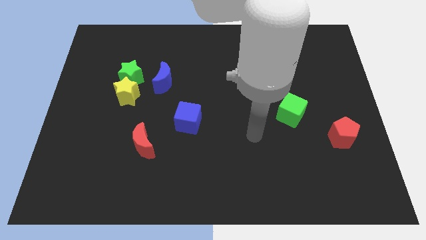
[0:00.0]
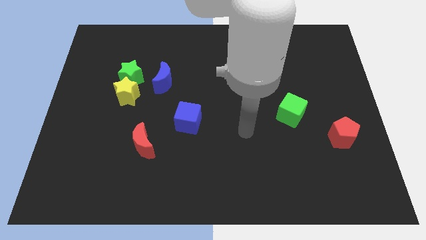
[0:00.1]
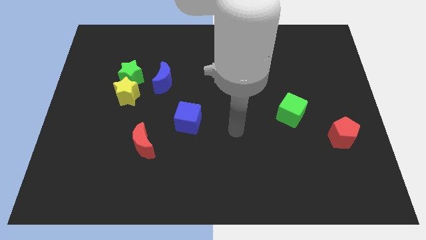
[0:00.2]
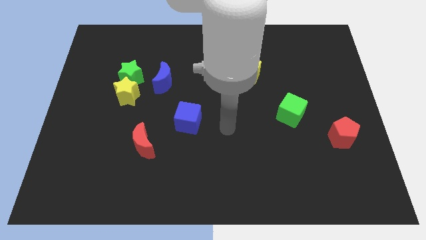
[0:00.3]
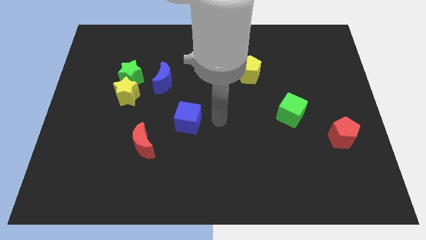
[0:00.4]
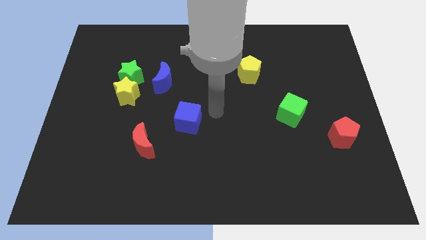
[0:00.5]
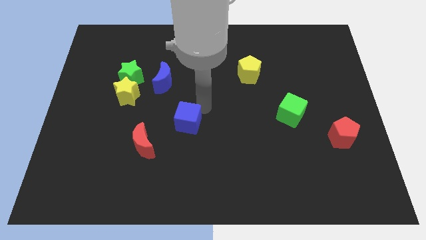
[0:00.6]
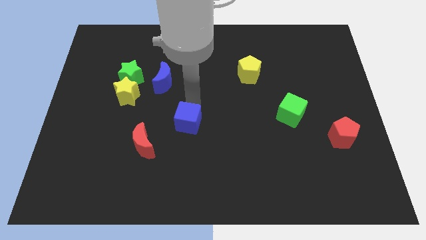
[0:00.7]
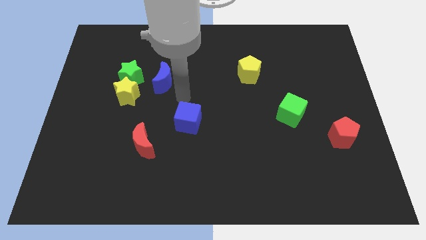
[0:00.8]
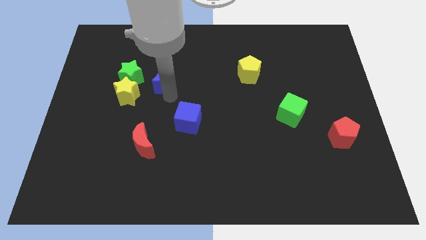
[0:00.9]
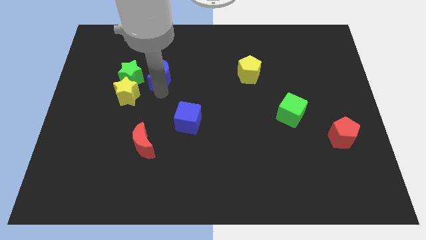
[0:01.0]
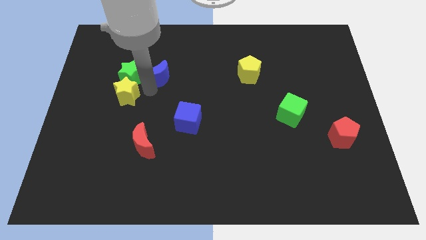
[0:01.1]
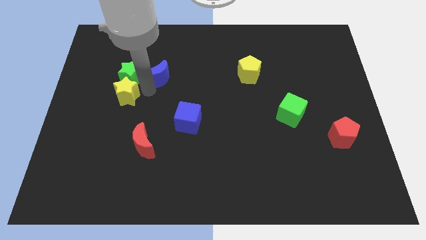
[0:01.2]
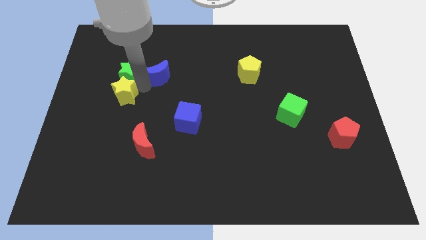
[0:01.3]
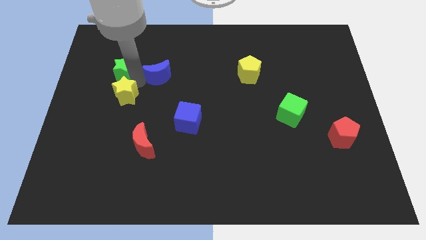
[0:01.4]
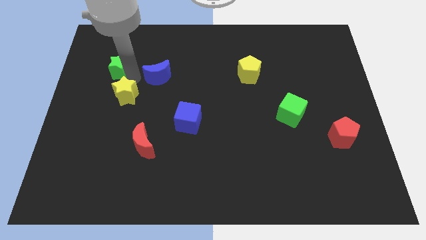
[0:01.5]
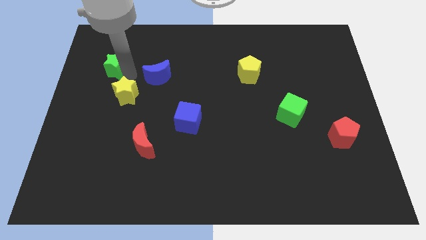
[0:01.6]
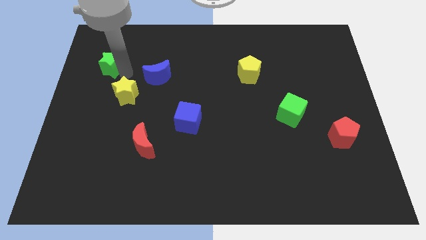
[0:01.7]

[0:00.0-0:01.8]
pull the green star apart from the yellow star and blue moon

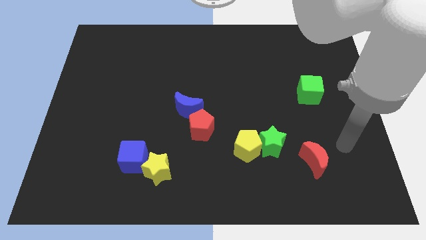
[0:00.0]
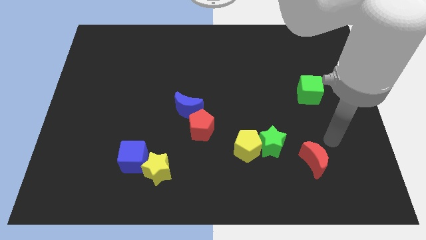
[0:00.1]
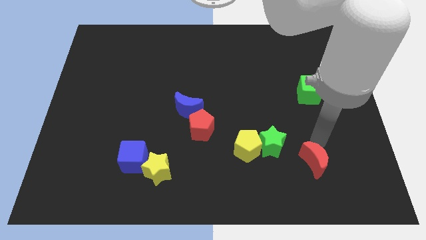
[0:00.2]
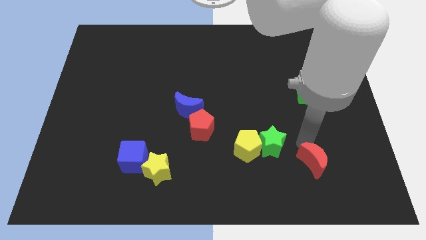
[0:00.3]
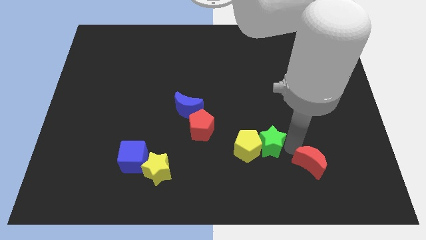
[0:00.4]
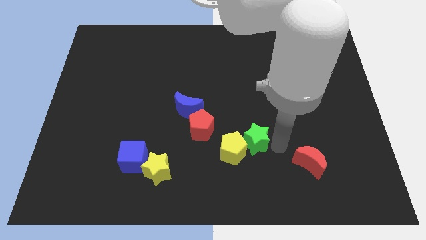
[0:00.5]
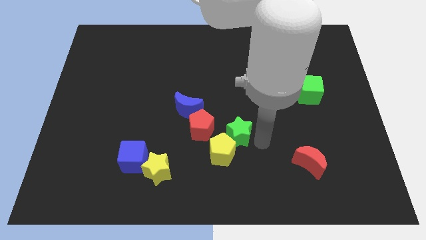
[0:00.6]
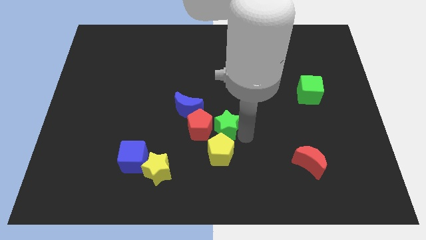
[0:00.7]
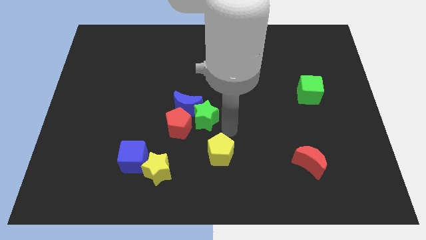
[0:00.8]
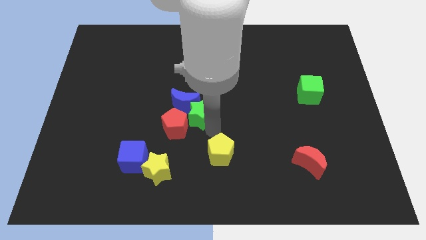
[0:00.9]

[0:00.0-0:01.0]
separate the yellow pentagon from the green star

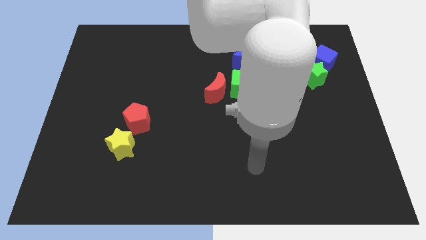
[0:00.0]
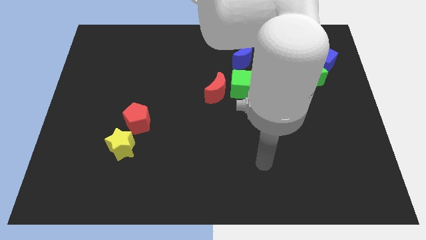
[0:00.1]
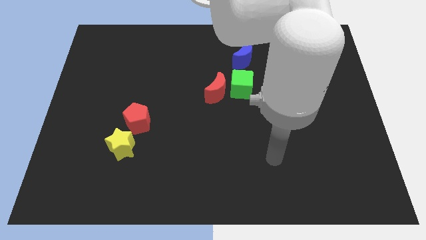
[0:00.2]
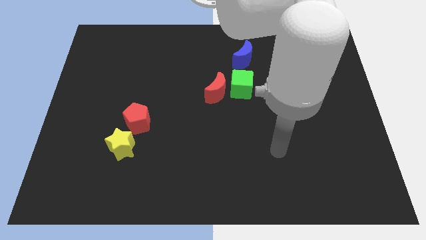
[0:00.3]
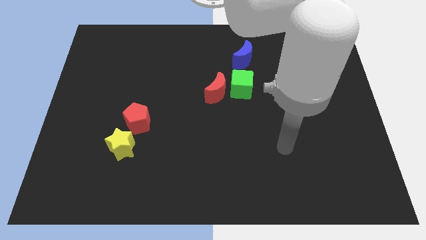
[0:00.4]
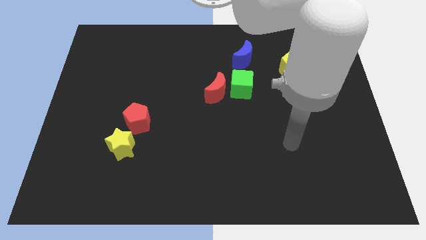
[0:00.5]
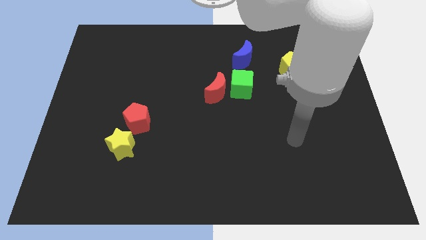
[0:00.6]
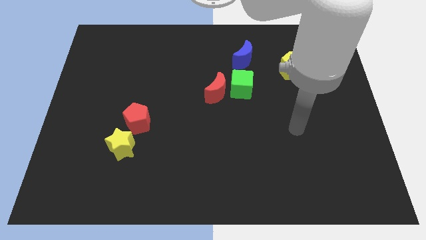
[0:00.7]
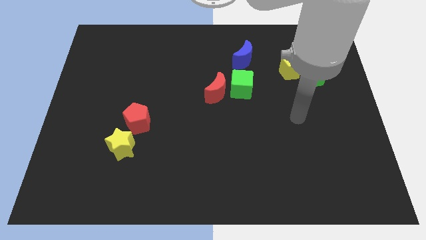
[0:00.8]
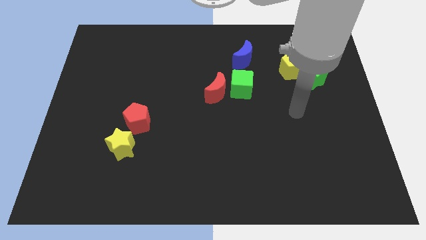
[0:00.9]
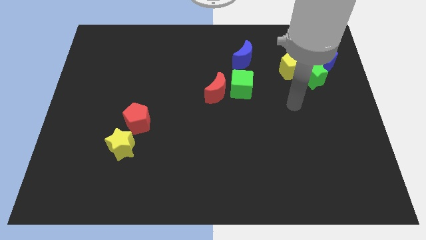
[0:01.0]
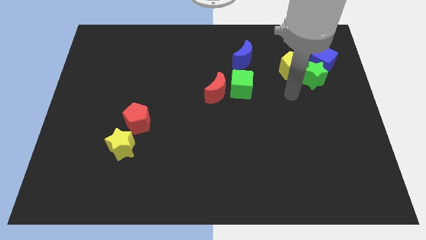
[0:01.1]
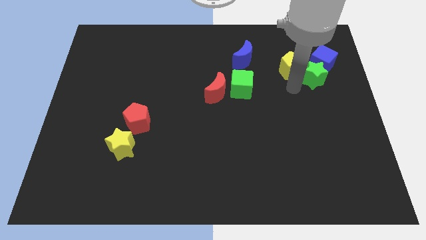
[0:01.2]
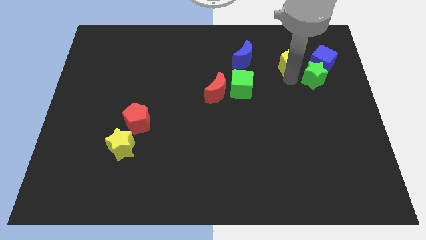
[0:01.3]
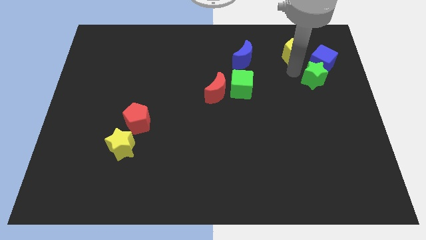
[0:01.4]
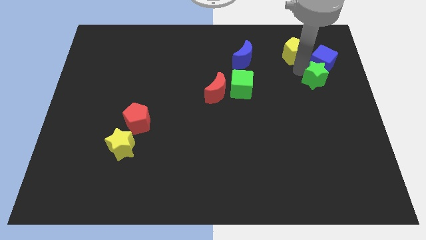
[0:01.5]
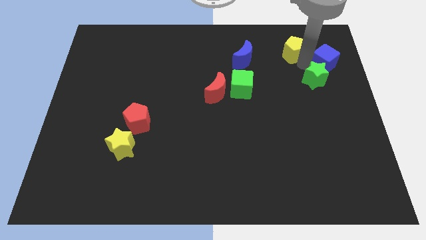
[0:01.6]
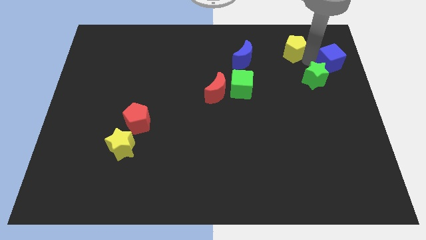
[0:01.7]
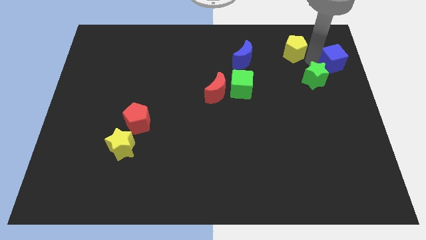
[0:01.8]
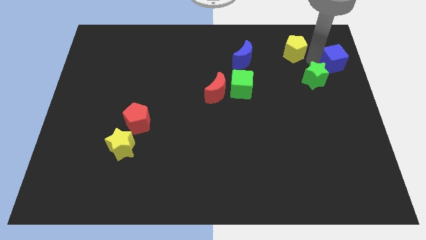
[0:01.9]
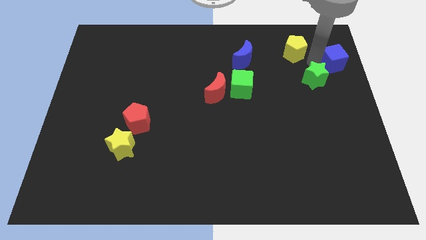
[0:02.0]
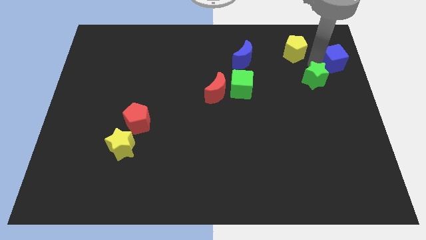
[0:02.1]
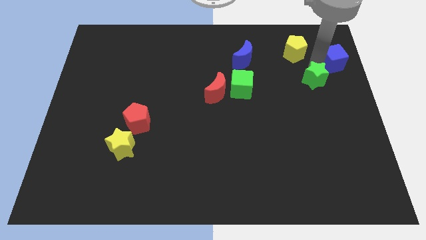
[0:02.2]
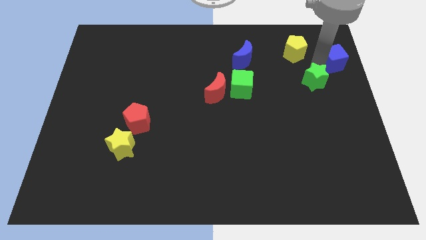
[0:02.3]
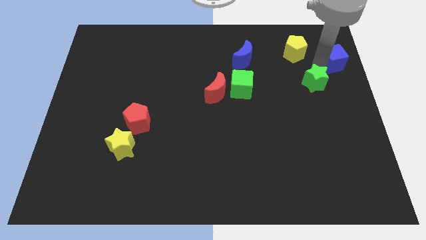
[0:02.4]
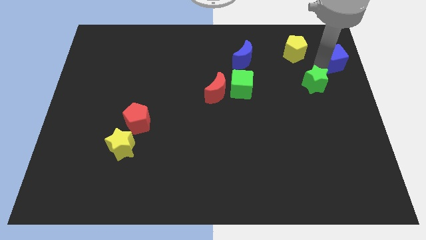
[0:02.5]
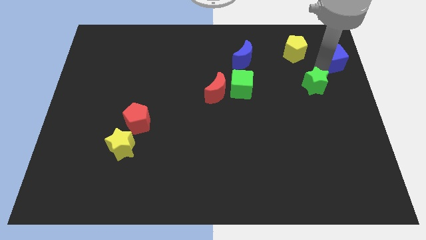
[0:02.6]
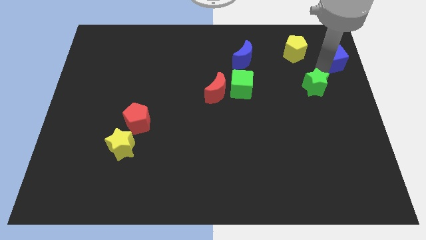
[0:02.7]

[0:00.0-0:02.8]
separate the green star from the yellow pentagon and blue cube

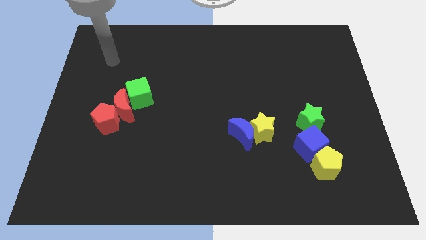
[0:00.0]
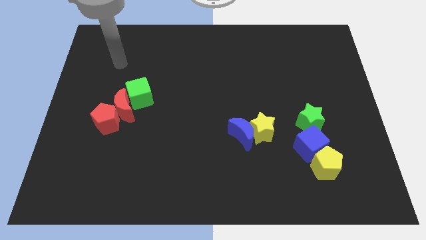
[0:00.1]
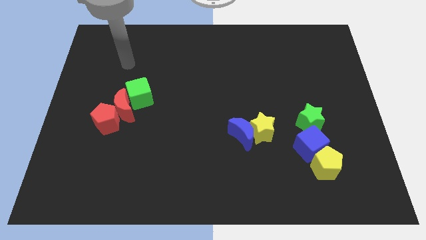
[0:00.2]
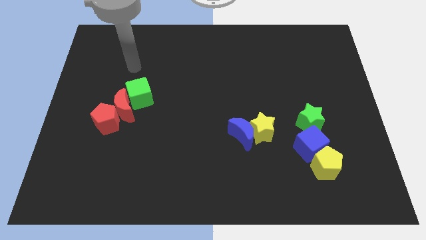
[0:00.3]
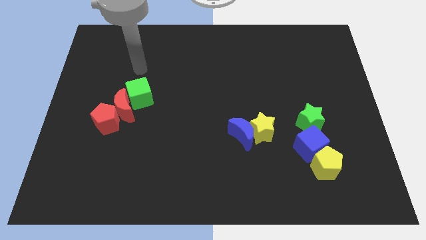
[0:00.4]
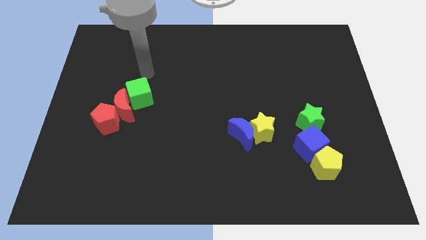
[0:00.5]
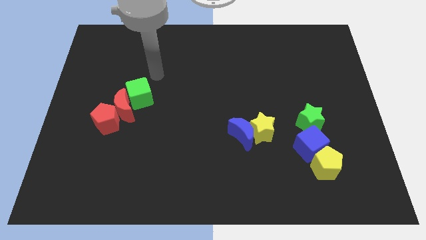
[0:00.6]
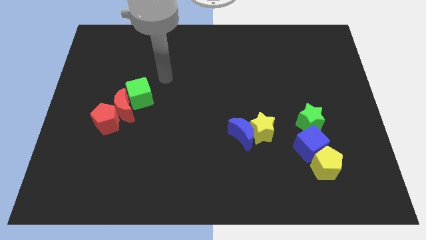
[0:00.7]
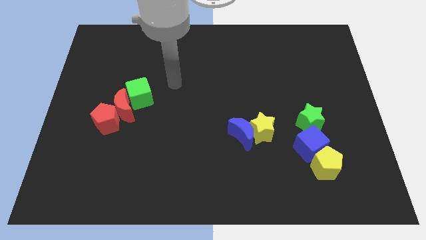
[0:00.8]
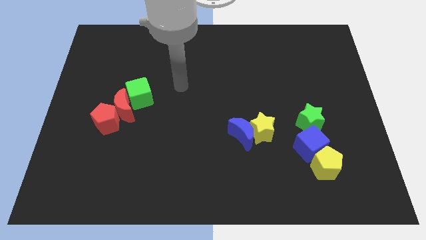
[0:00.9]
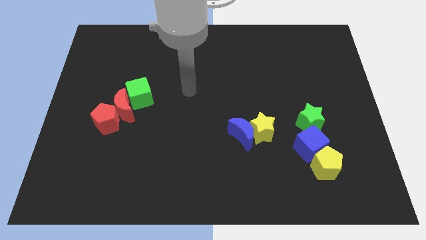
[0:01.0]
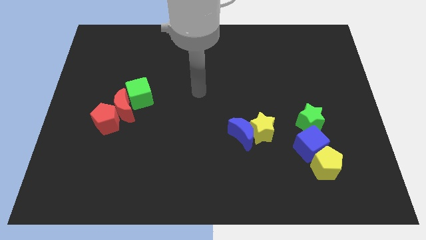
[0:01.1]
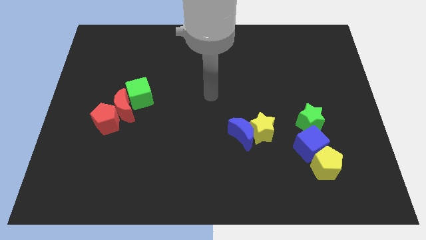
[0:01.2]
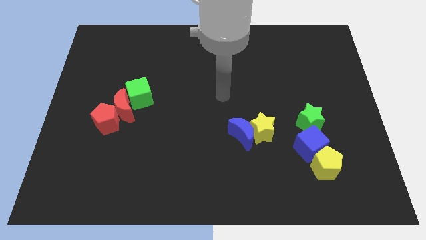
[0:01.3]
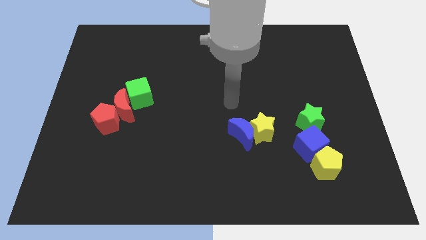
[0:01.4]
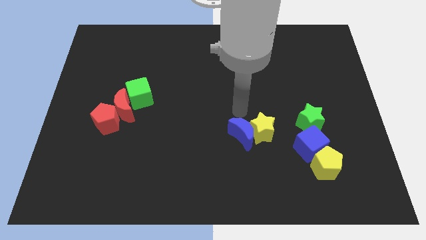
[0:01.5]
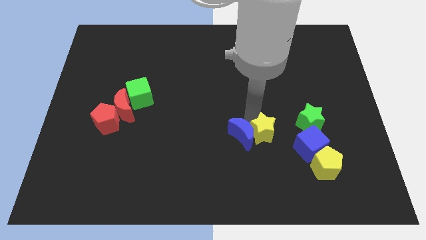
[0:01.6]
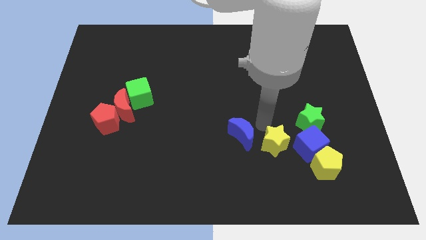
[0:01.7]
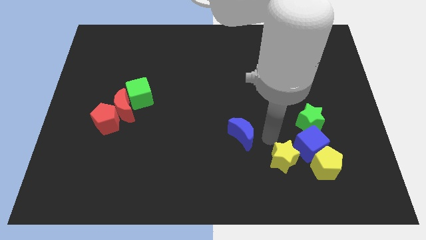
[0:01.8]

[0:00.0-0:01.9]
separate the blue moon from the yellow star

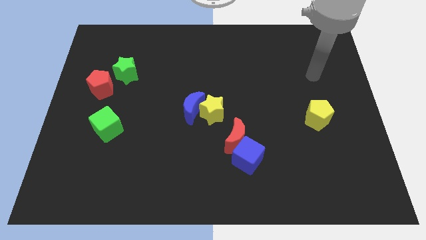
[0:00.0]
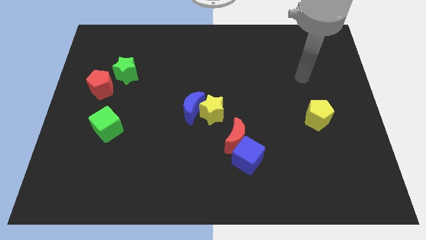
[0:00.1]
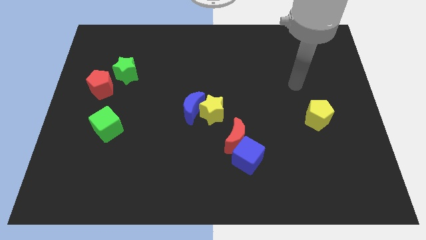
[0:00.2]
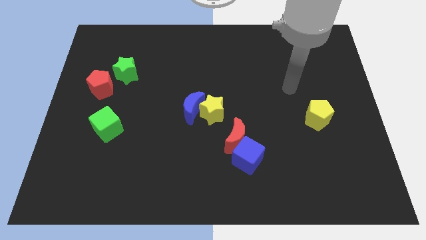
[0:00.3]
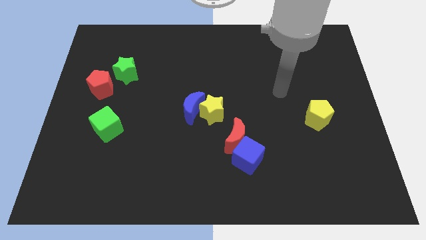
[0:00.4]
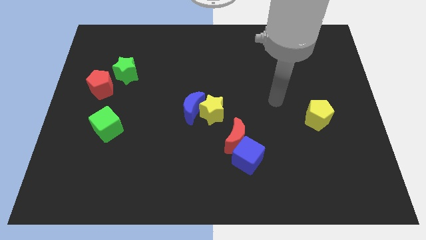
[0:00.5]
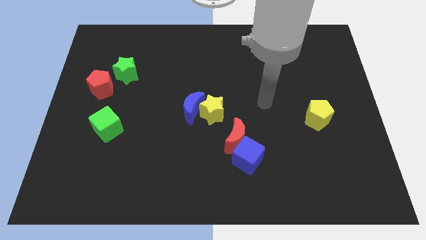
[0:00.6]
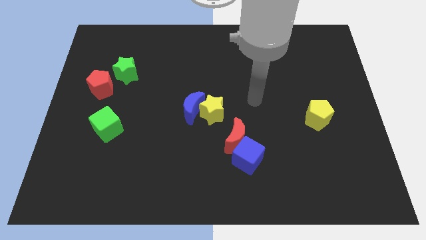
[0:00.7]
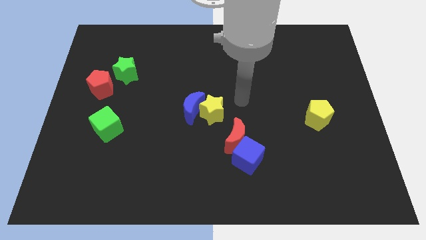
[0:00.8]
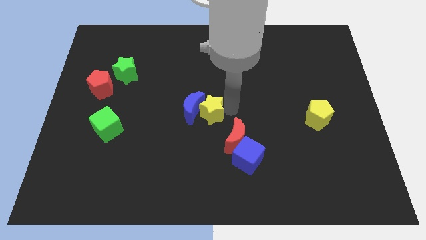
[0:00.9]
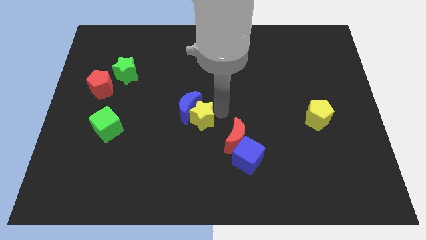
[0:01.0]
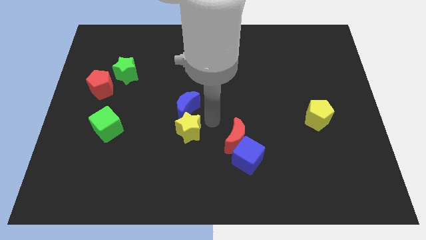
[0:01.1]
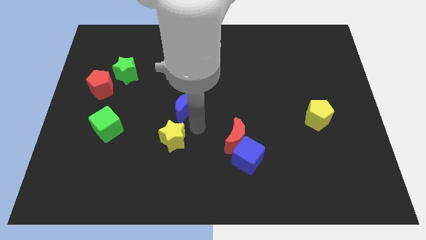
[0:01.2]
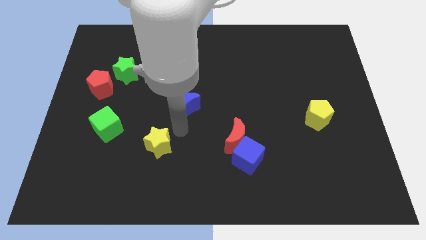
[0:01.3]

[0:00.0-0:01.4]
pull the blue moon apart from the yellow star

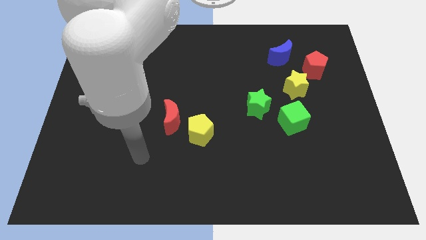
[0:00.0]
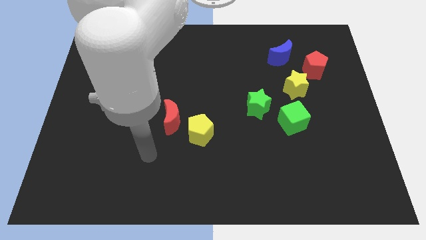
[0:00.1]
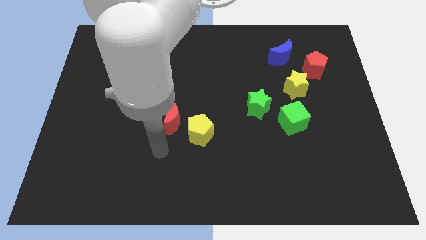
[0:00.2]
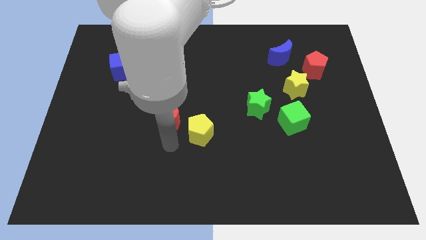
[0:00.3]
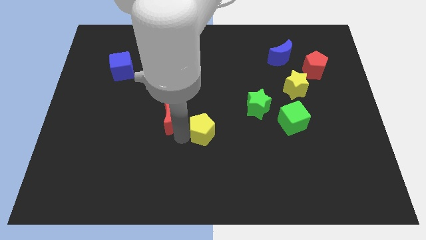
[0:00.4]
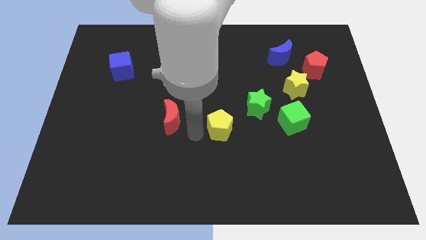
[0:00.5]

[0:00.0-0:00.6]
pull the red moon apart from the yellow pentagon
